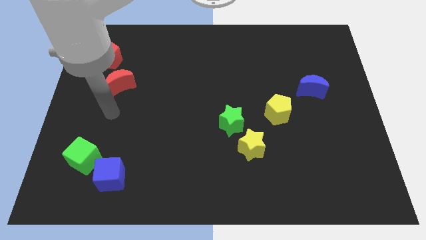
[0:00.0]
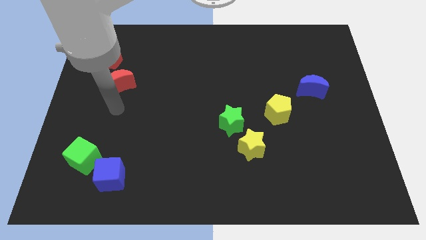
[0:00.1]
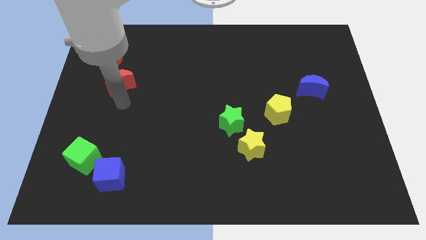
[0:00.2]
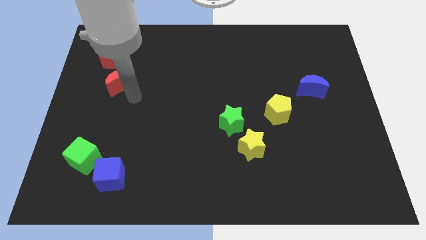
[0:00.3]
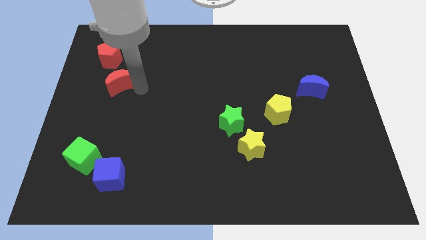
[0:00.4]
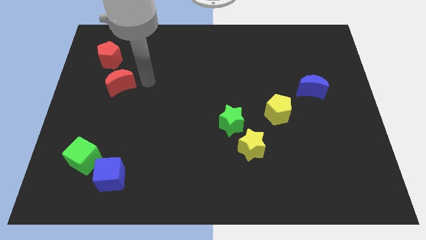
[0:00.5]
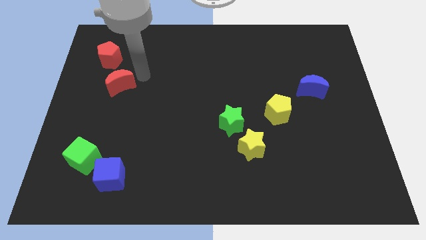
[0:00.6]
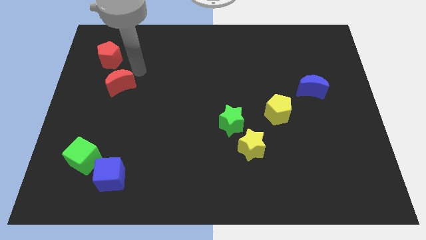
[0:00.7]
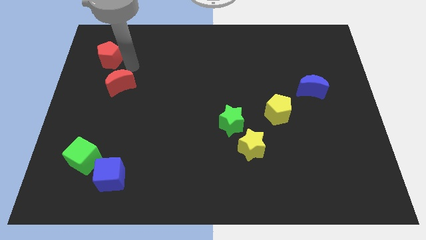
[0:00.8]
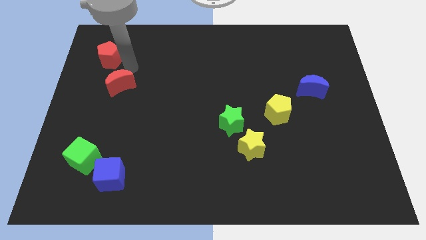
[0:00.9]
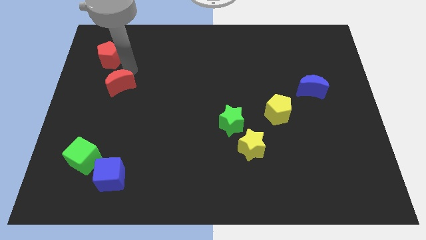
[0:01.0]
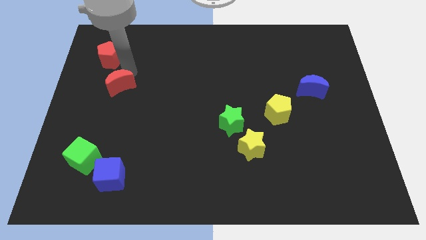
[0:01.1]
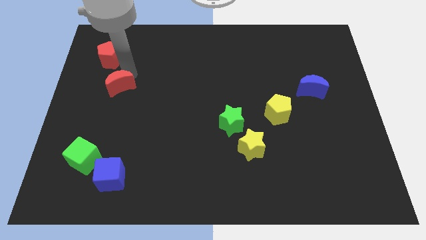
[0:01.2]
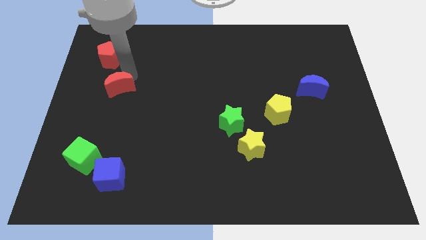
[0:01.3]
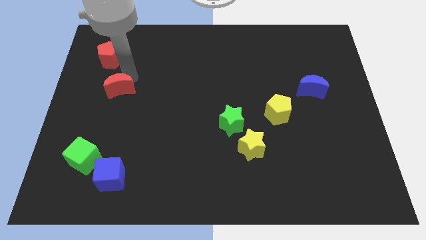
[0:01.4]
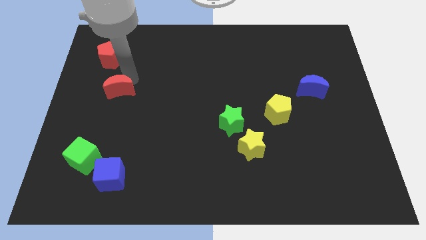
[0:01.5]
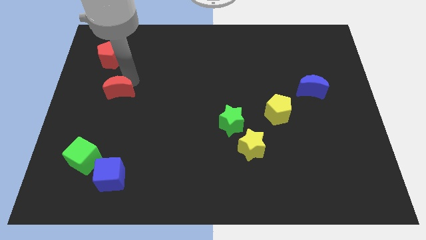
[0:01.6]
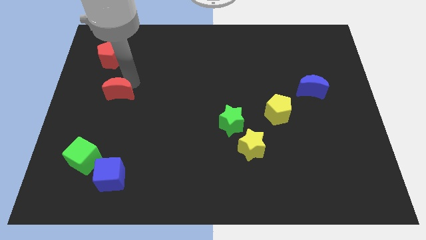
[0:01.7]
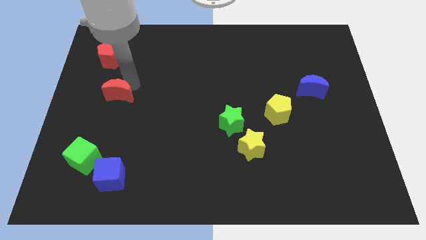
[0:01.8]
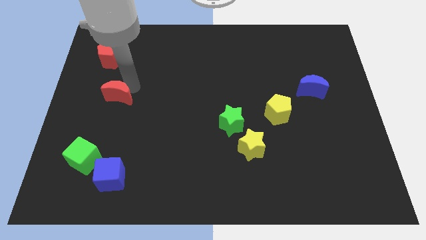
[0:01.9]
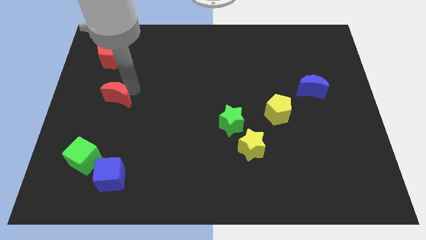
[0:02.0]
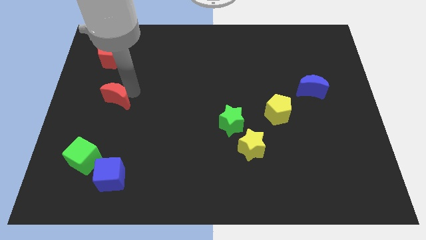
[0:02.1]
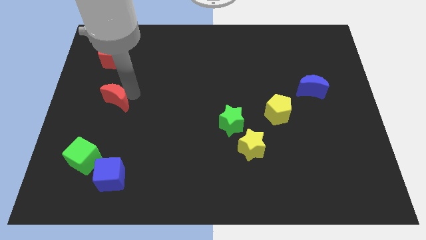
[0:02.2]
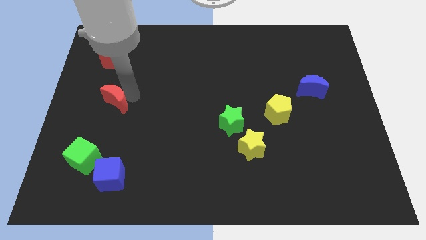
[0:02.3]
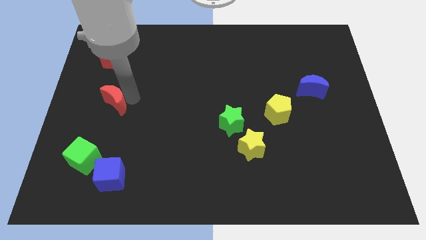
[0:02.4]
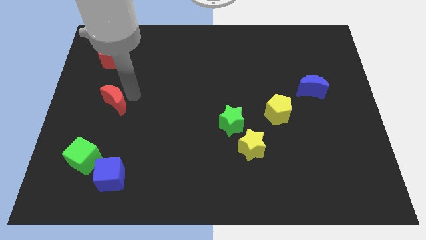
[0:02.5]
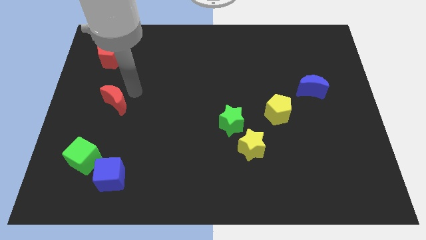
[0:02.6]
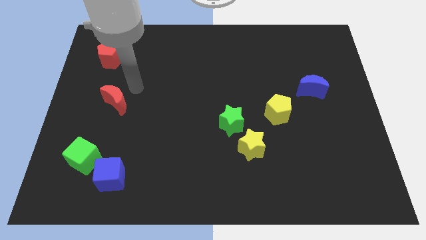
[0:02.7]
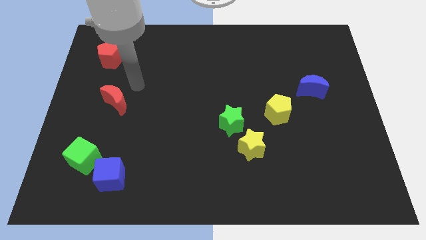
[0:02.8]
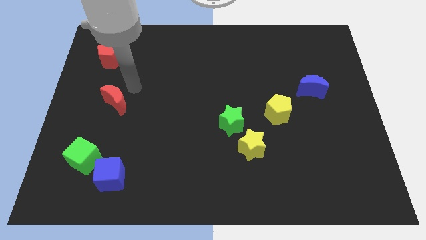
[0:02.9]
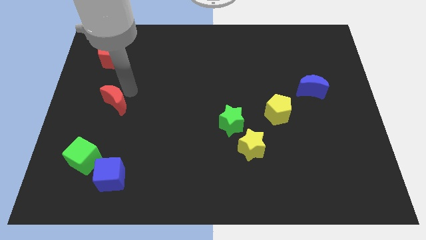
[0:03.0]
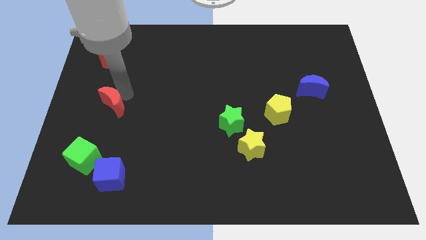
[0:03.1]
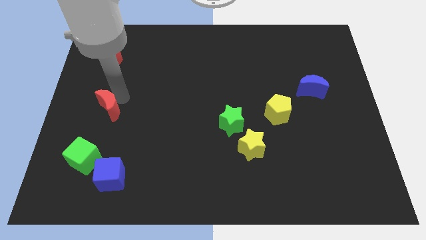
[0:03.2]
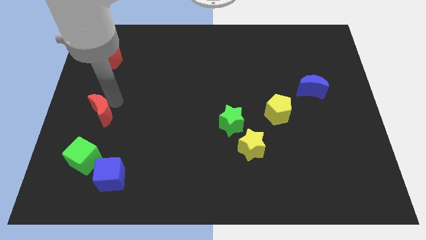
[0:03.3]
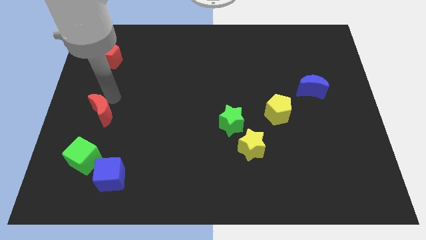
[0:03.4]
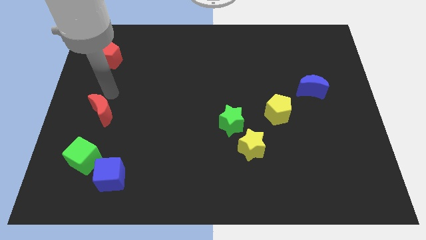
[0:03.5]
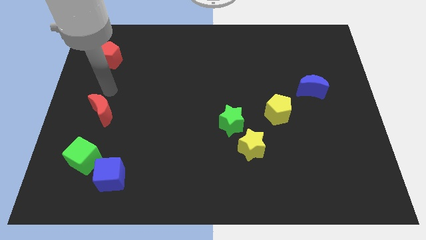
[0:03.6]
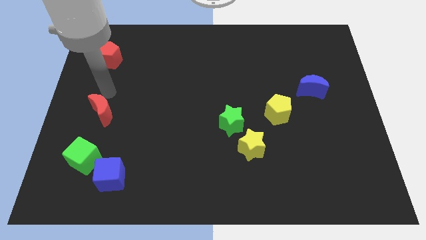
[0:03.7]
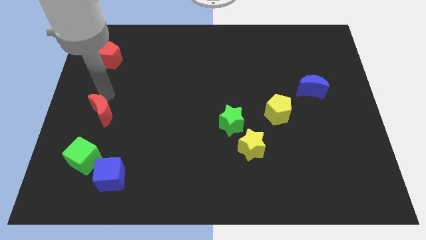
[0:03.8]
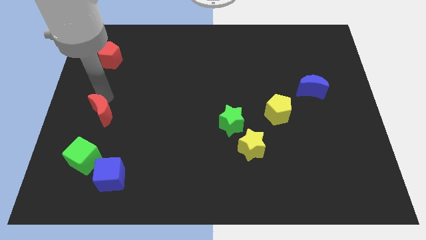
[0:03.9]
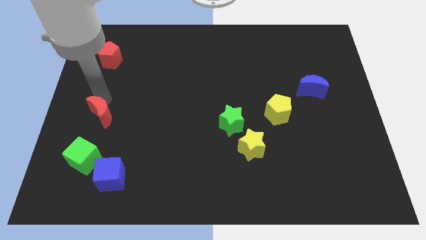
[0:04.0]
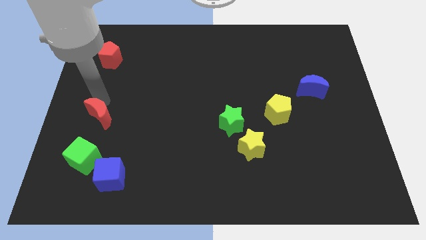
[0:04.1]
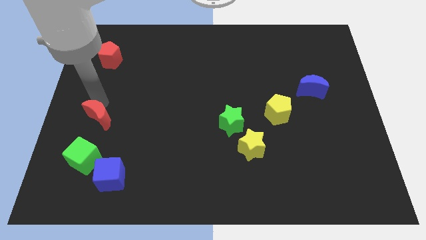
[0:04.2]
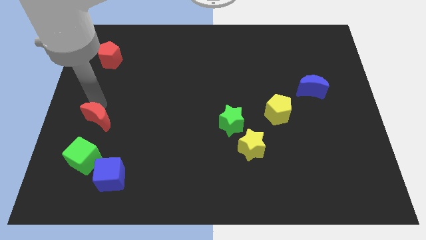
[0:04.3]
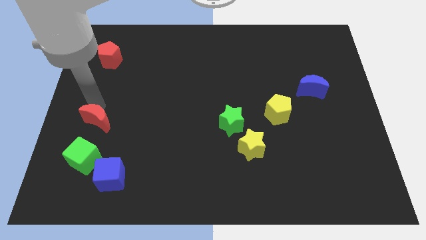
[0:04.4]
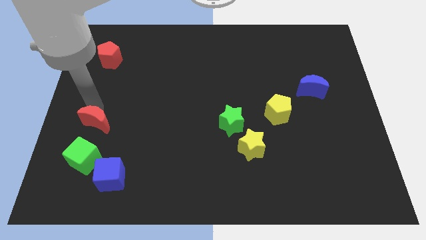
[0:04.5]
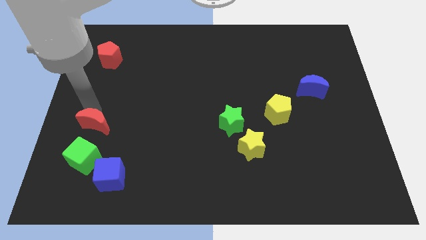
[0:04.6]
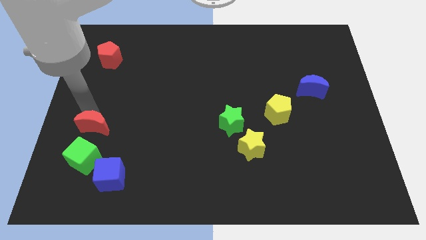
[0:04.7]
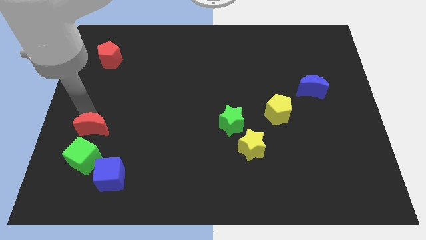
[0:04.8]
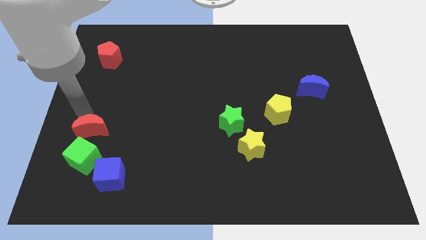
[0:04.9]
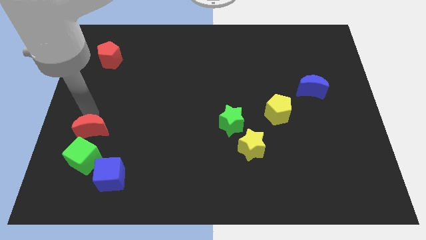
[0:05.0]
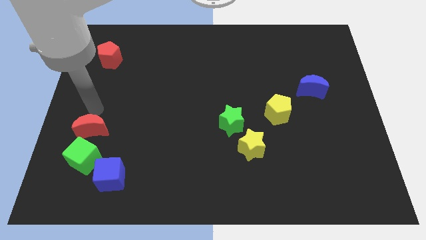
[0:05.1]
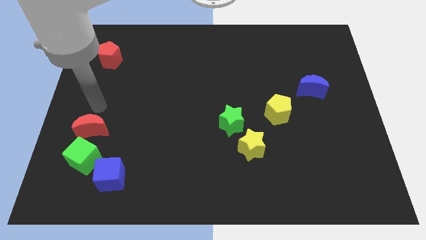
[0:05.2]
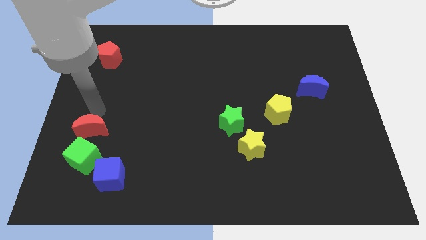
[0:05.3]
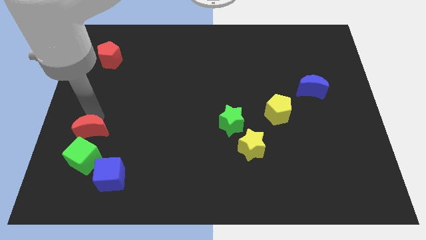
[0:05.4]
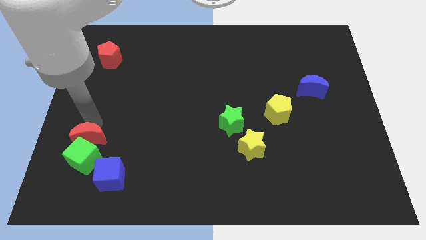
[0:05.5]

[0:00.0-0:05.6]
put the red moon towards the green cube

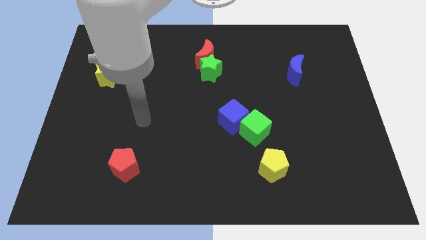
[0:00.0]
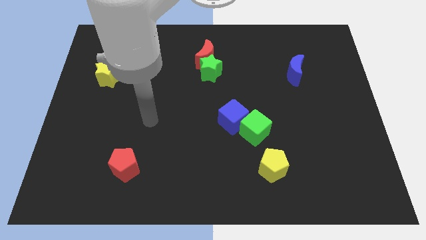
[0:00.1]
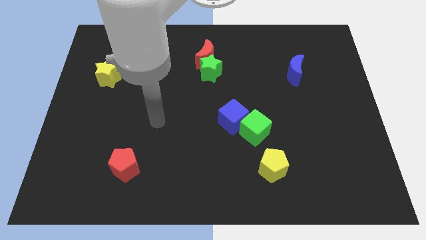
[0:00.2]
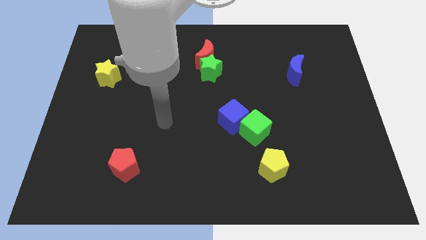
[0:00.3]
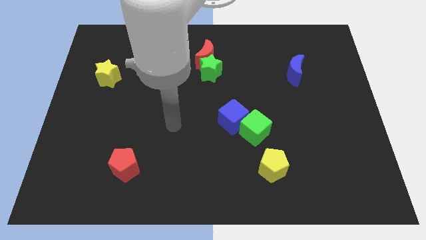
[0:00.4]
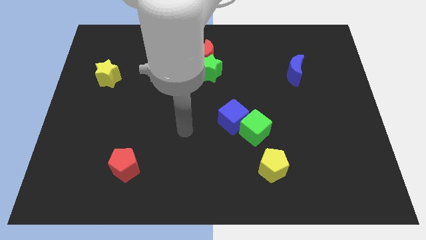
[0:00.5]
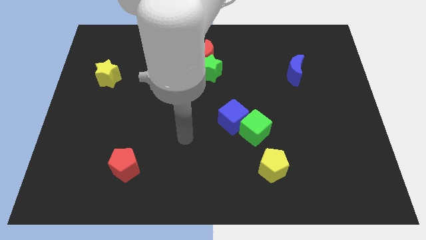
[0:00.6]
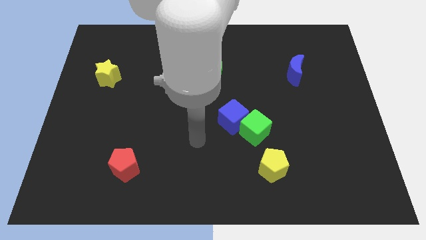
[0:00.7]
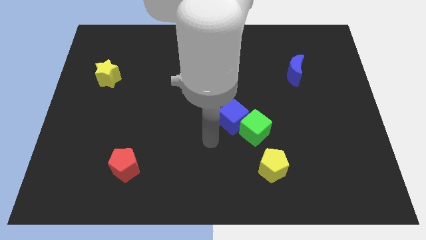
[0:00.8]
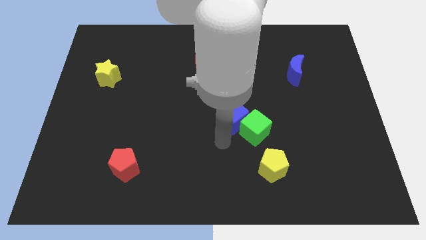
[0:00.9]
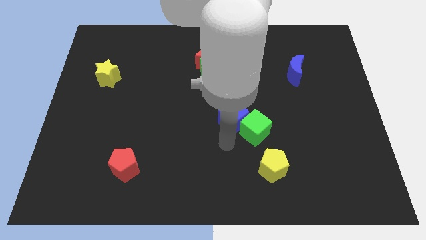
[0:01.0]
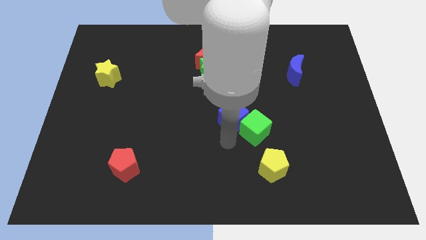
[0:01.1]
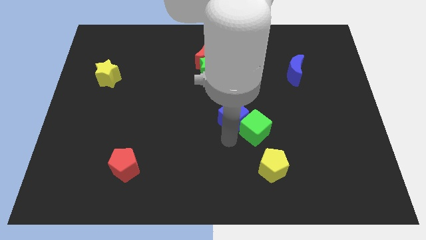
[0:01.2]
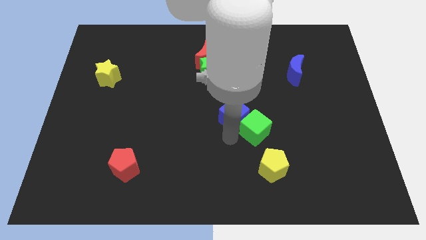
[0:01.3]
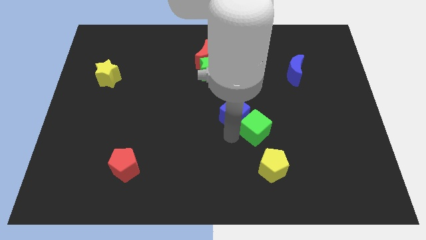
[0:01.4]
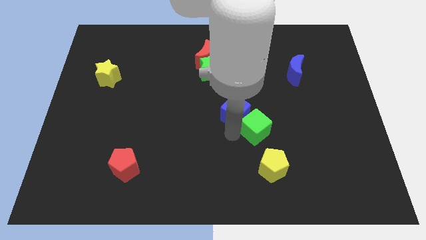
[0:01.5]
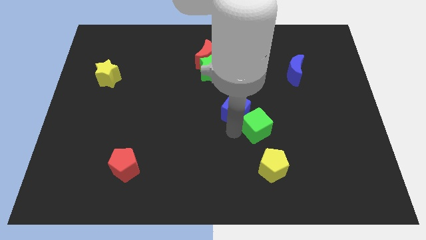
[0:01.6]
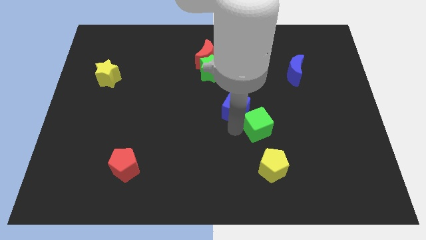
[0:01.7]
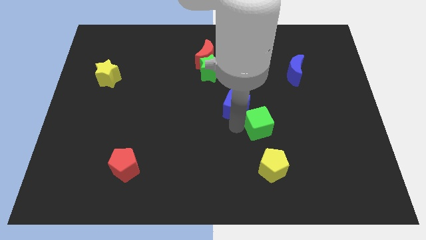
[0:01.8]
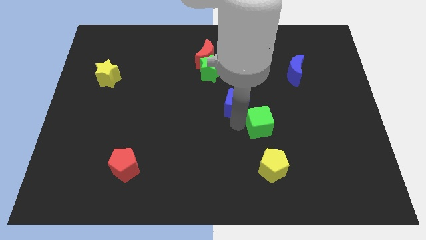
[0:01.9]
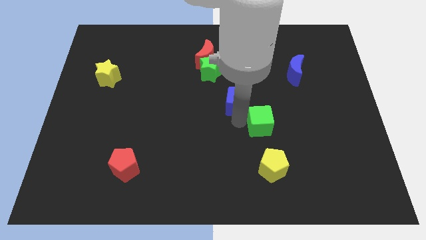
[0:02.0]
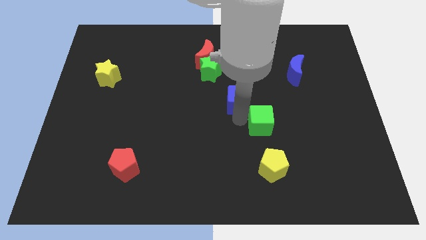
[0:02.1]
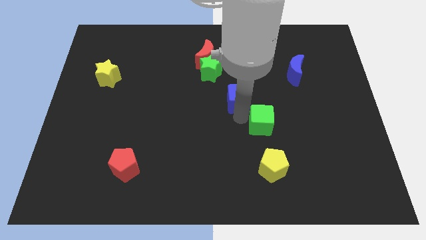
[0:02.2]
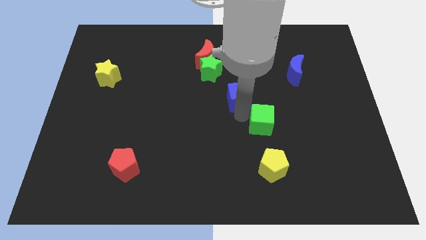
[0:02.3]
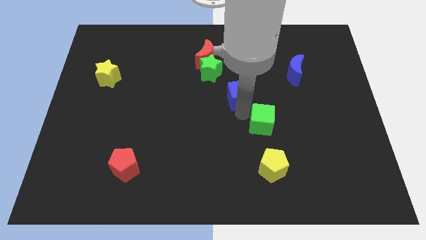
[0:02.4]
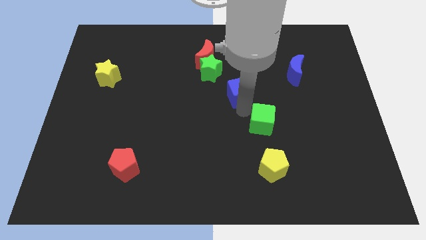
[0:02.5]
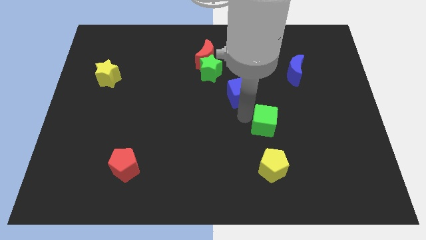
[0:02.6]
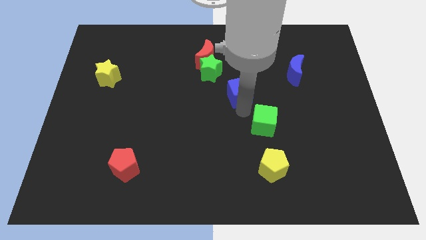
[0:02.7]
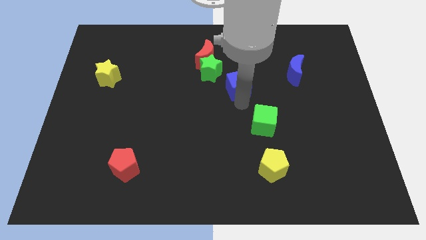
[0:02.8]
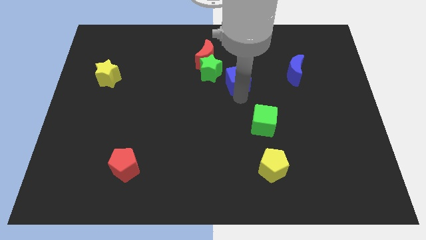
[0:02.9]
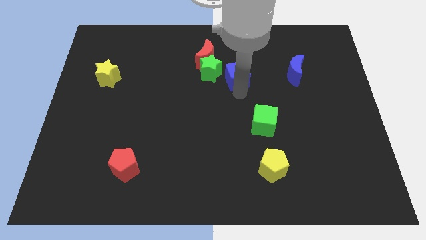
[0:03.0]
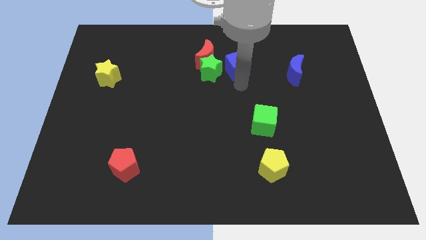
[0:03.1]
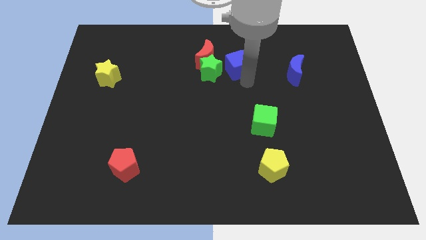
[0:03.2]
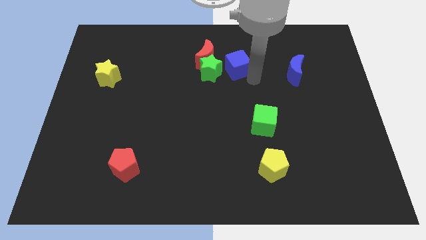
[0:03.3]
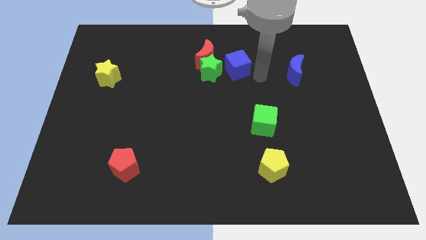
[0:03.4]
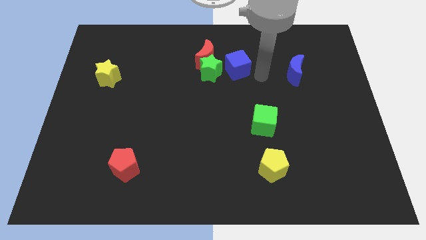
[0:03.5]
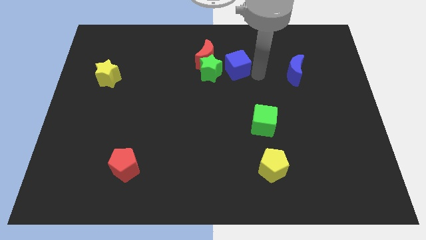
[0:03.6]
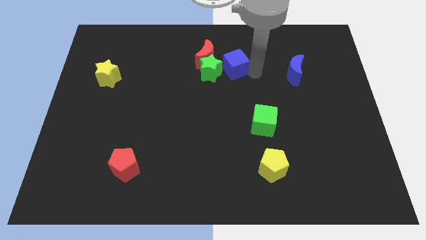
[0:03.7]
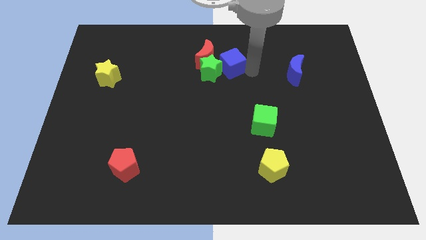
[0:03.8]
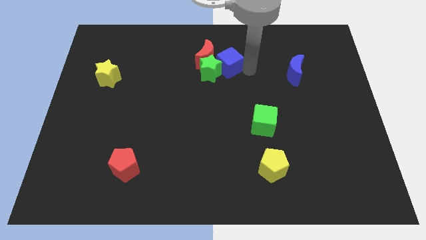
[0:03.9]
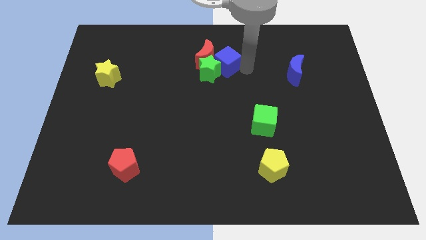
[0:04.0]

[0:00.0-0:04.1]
put the blue cube close to the red moon
